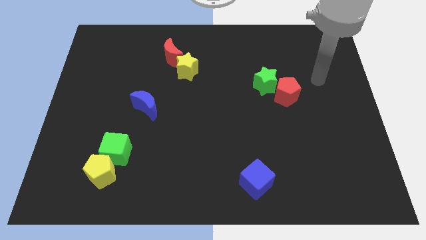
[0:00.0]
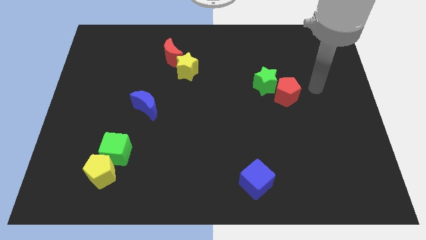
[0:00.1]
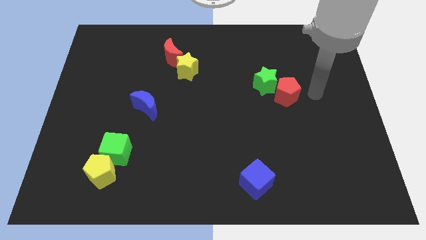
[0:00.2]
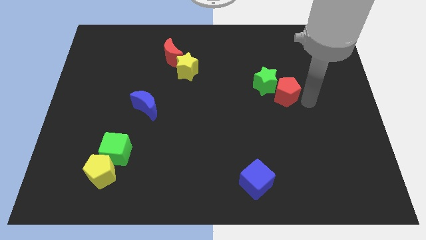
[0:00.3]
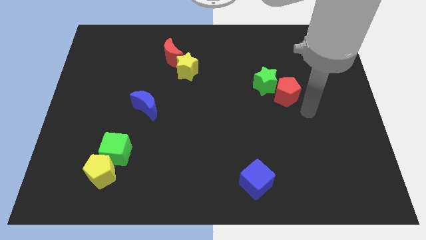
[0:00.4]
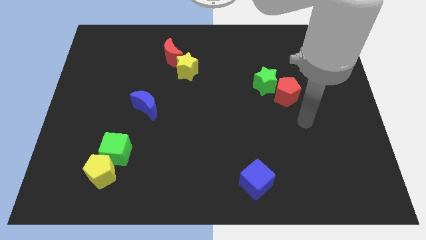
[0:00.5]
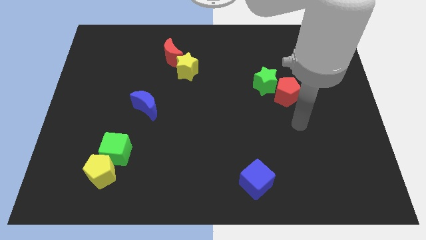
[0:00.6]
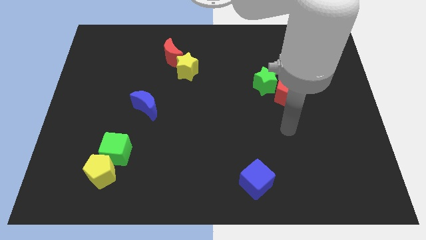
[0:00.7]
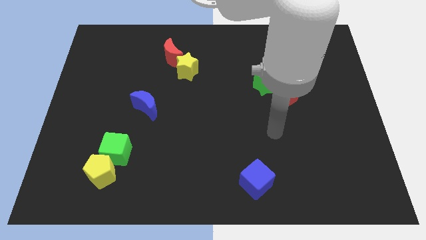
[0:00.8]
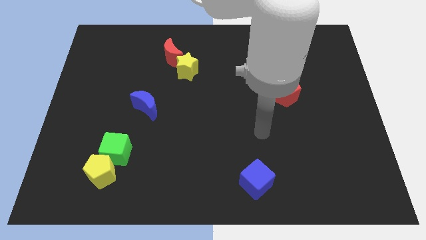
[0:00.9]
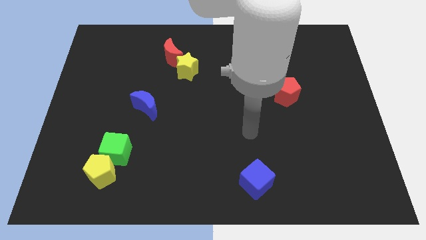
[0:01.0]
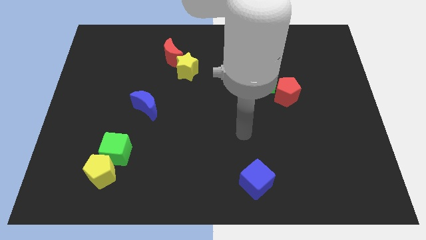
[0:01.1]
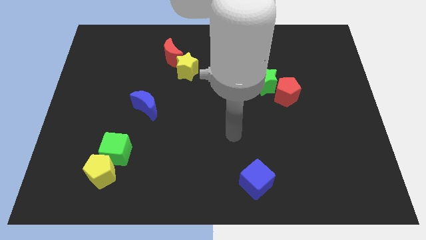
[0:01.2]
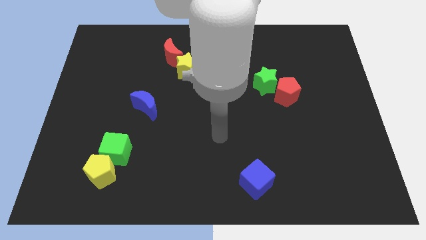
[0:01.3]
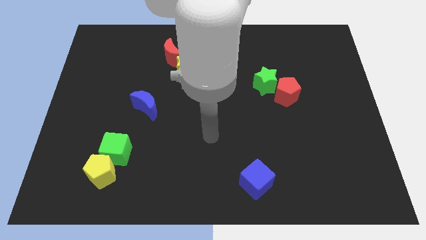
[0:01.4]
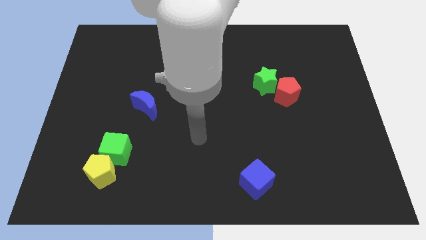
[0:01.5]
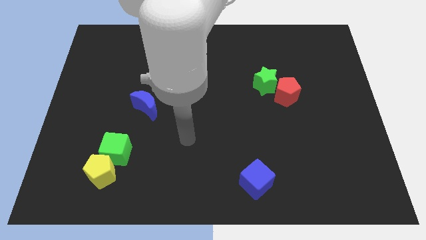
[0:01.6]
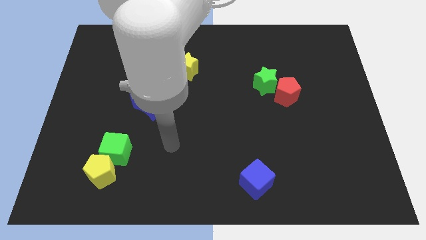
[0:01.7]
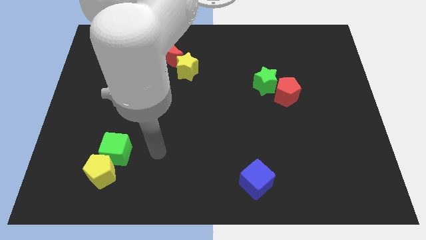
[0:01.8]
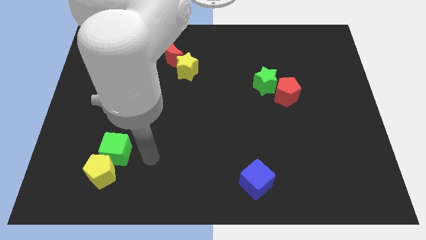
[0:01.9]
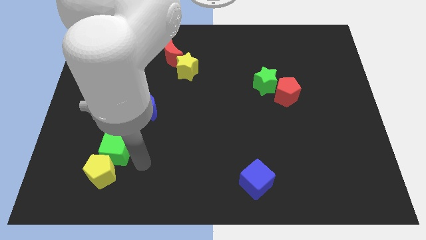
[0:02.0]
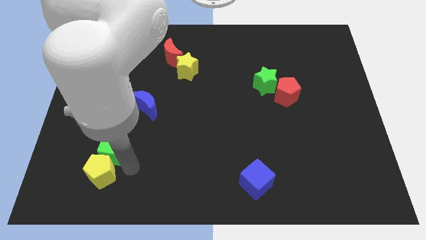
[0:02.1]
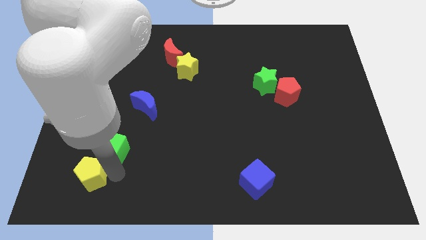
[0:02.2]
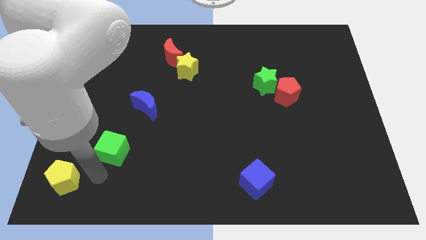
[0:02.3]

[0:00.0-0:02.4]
pull the green cube apart from the yellow pentagon

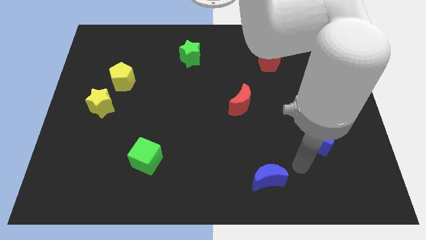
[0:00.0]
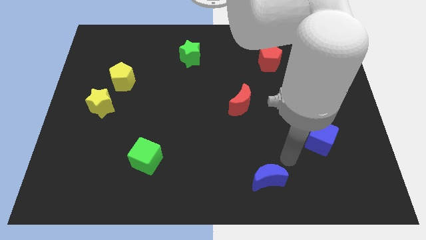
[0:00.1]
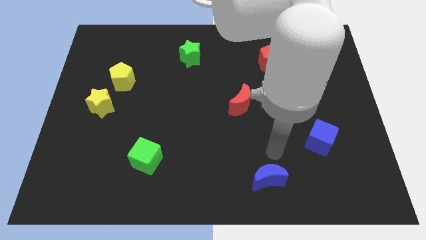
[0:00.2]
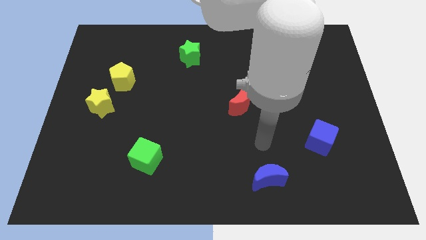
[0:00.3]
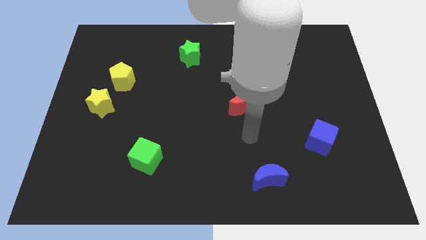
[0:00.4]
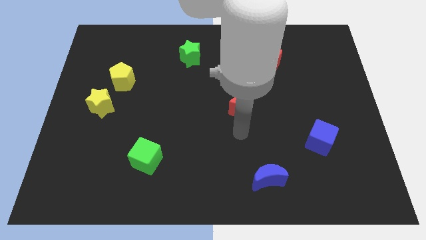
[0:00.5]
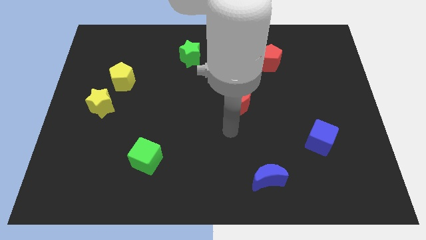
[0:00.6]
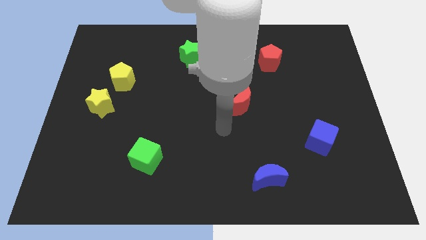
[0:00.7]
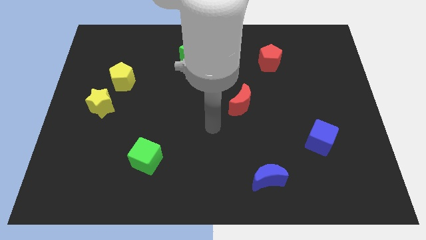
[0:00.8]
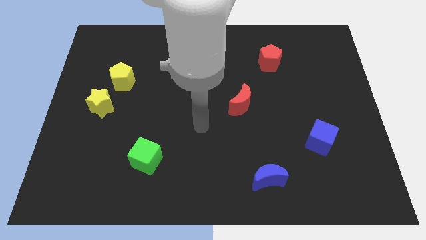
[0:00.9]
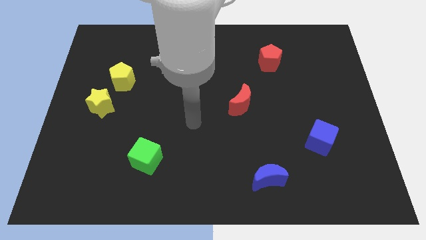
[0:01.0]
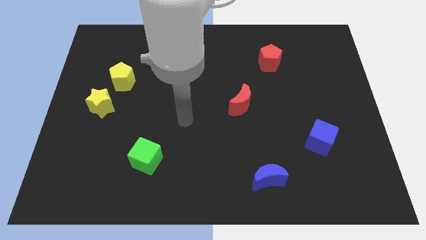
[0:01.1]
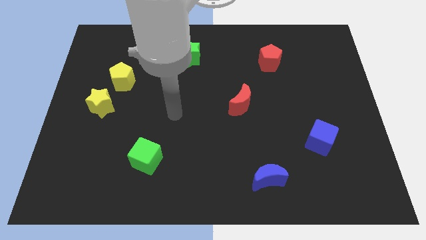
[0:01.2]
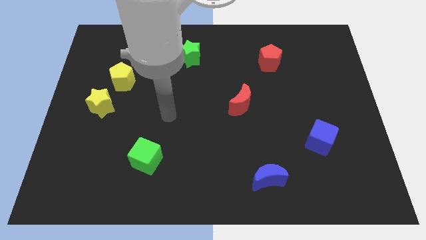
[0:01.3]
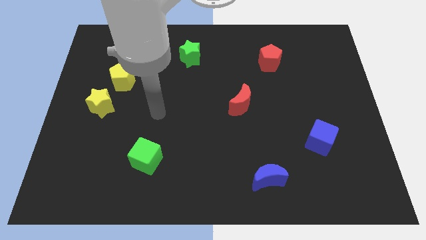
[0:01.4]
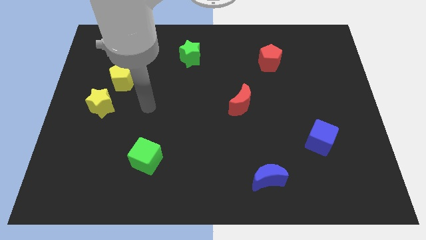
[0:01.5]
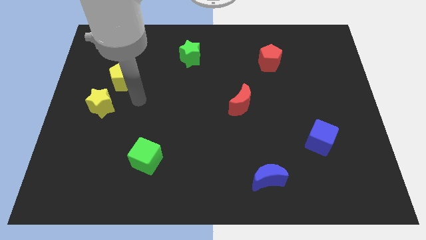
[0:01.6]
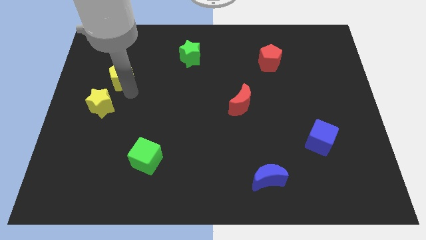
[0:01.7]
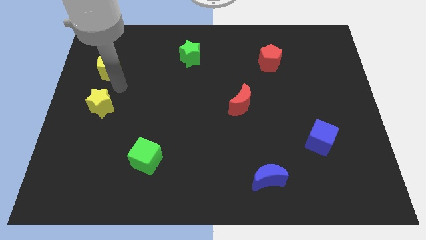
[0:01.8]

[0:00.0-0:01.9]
pull the yellow star apart from the yellow pentagon

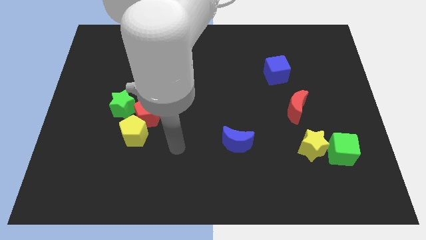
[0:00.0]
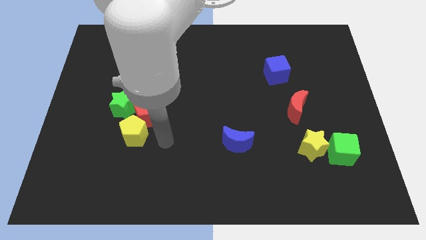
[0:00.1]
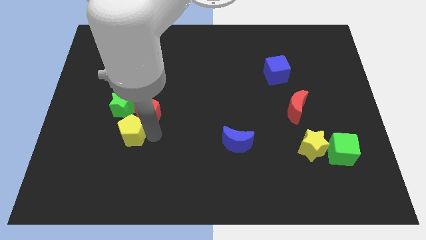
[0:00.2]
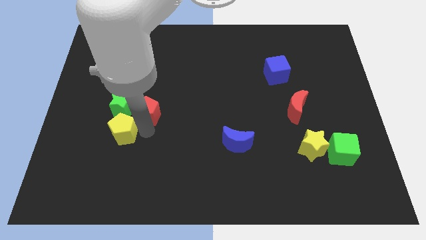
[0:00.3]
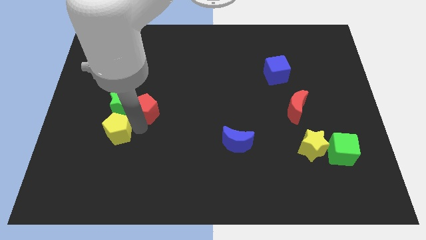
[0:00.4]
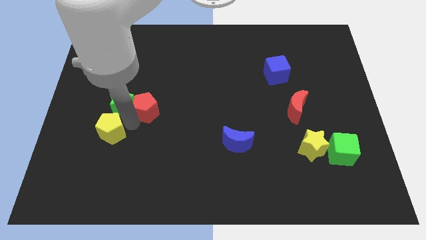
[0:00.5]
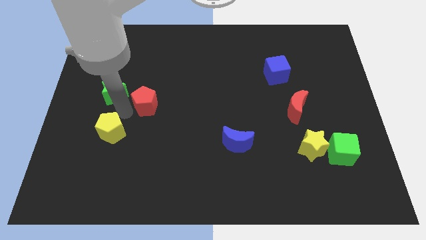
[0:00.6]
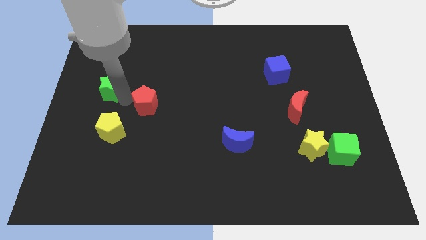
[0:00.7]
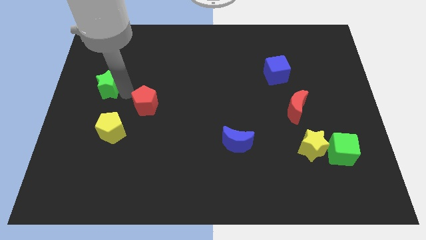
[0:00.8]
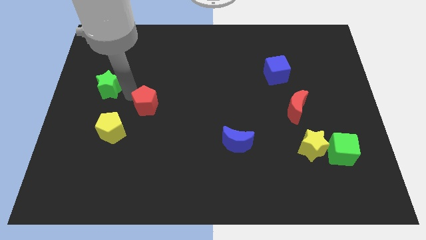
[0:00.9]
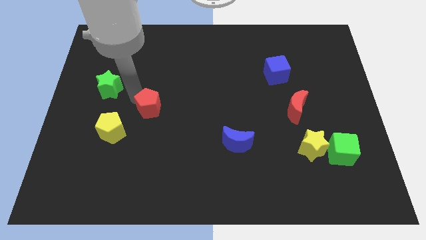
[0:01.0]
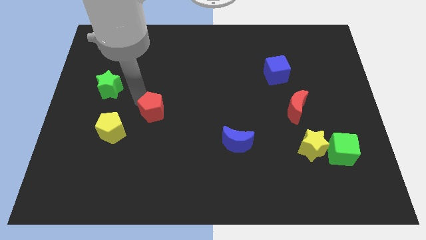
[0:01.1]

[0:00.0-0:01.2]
separate the red pentagon from the yellow pentagon and green star

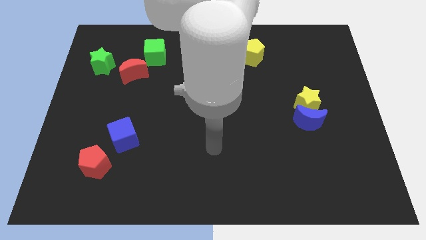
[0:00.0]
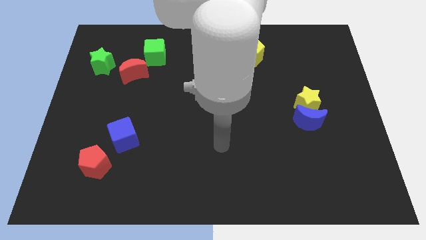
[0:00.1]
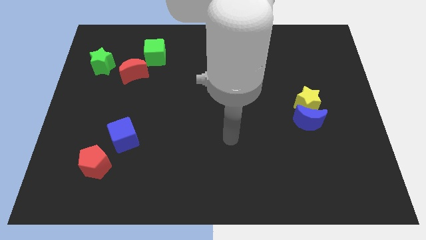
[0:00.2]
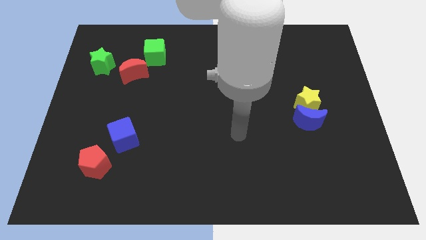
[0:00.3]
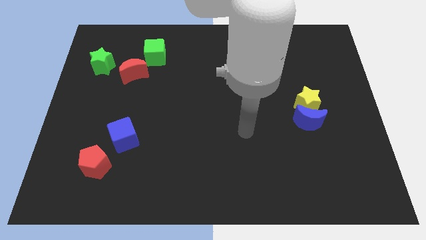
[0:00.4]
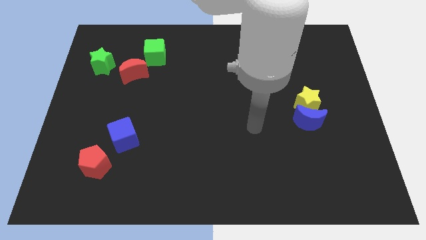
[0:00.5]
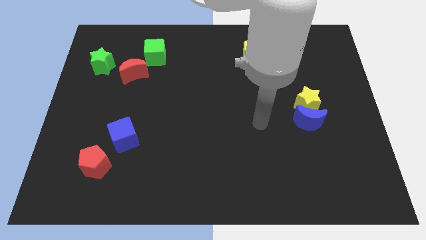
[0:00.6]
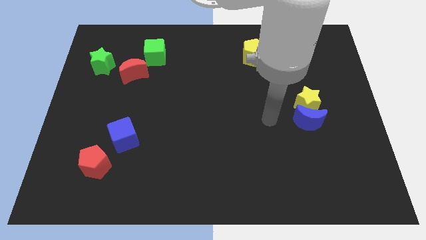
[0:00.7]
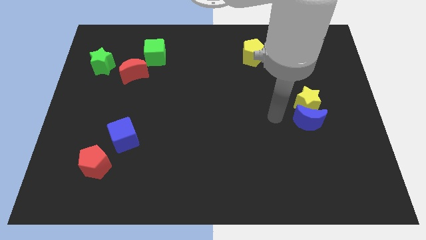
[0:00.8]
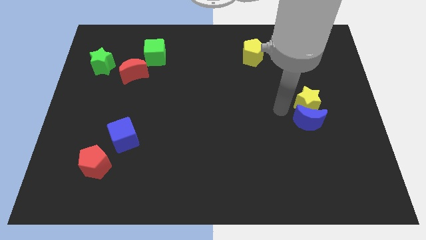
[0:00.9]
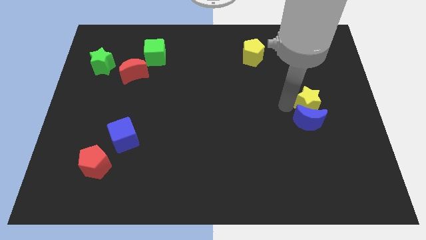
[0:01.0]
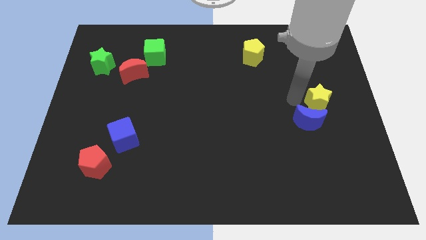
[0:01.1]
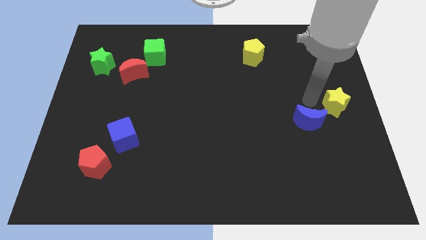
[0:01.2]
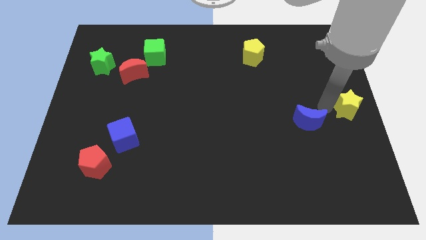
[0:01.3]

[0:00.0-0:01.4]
move the blue moon away from the yellow star

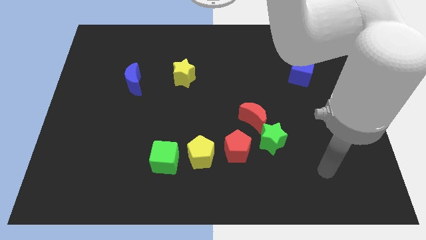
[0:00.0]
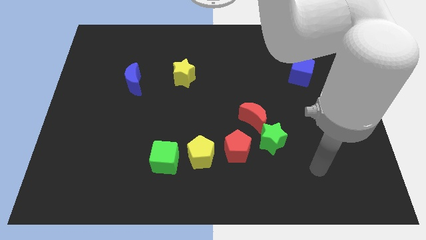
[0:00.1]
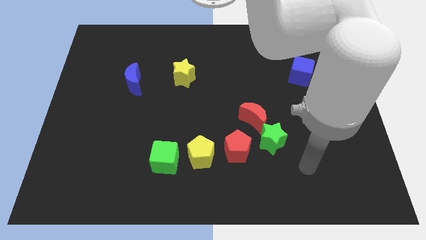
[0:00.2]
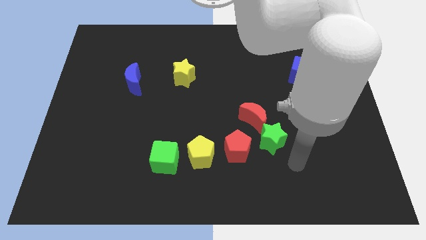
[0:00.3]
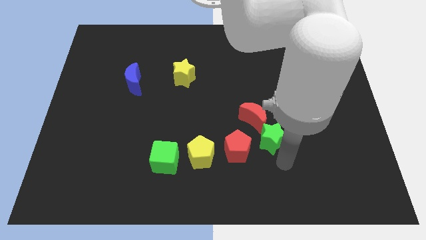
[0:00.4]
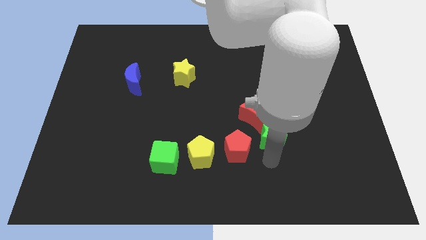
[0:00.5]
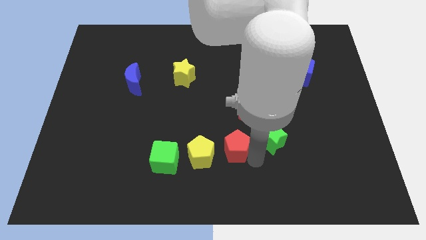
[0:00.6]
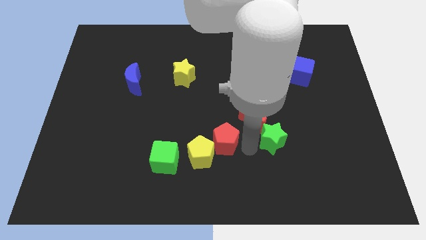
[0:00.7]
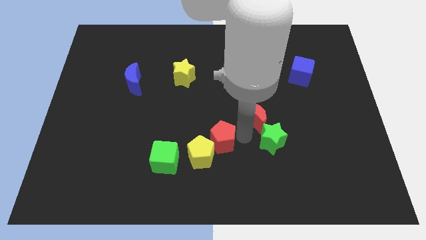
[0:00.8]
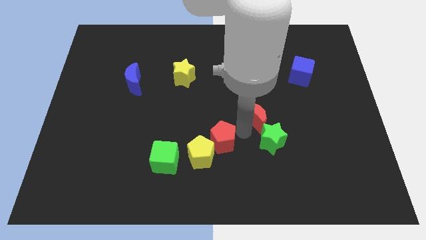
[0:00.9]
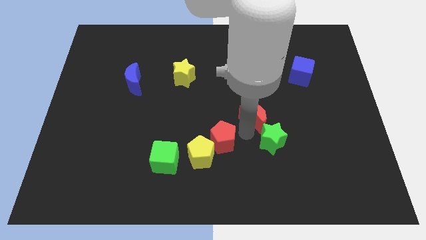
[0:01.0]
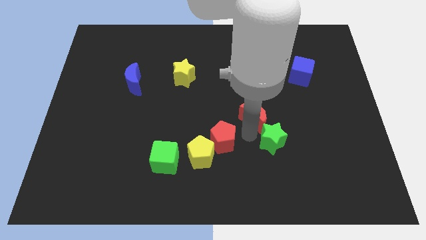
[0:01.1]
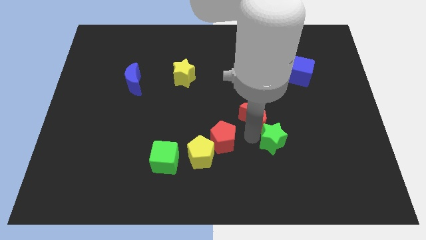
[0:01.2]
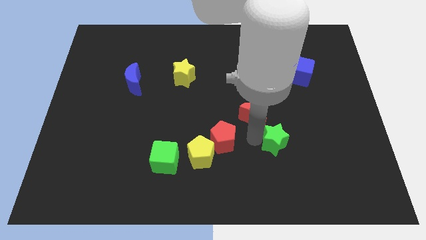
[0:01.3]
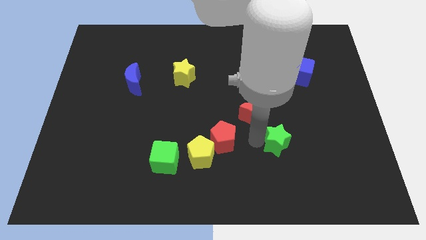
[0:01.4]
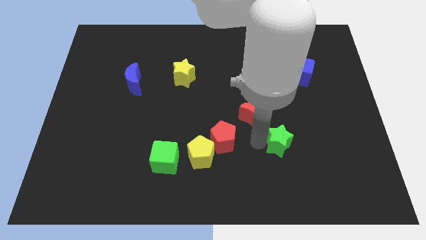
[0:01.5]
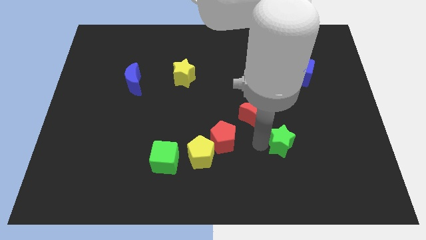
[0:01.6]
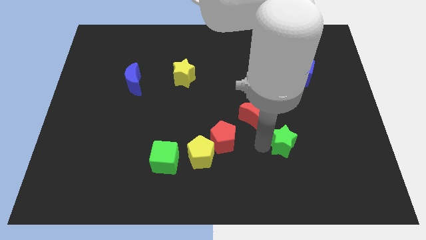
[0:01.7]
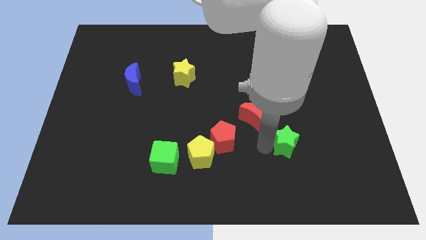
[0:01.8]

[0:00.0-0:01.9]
separate the green star from the red moon and red pentagon

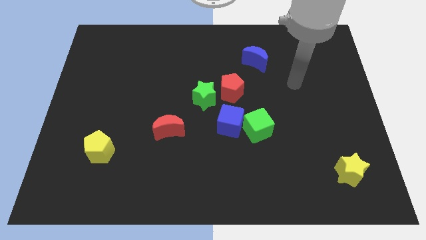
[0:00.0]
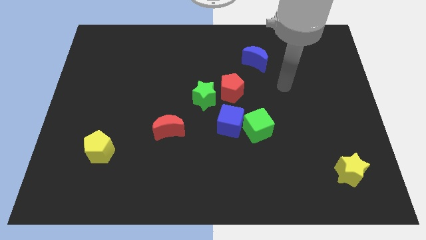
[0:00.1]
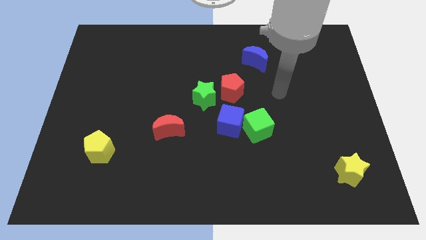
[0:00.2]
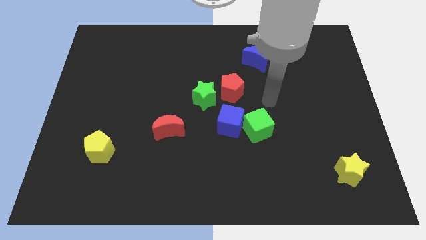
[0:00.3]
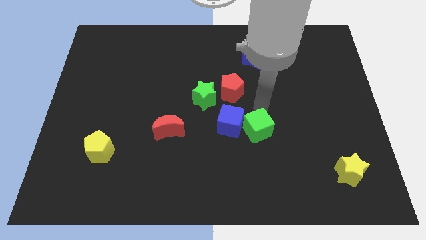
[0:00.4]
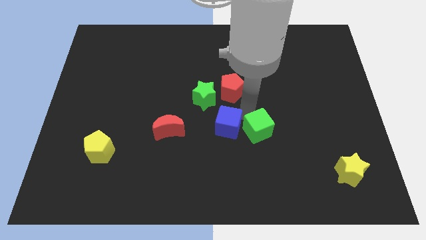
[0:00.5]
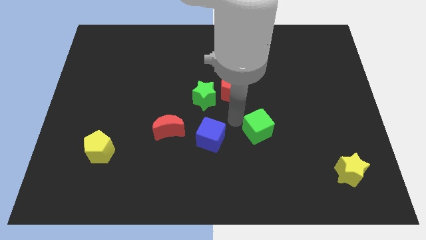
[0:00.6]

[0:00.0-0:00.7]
move the green cube away from the blue cube
